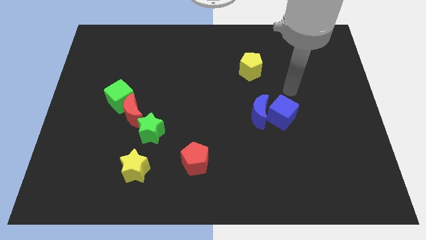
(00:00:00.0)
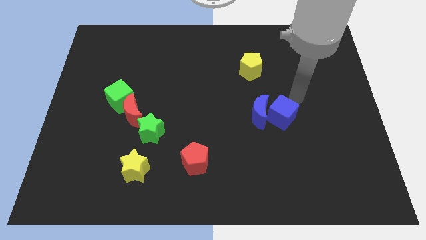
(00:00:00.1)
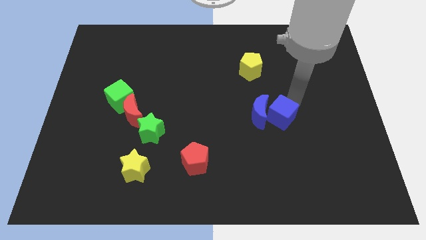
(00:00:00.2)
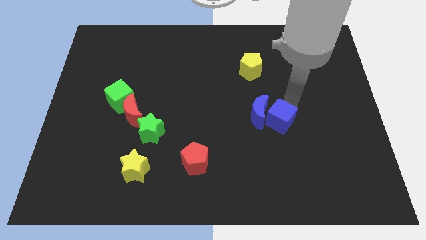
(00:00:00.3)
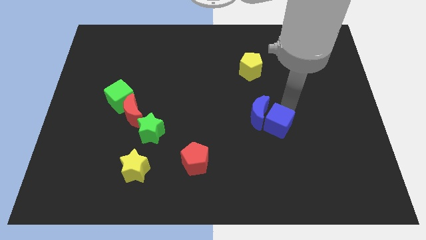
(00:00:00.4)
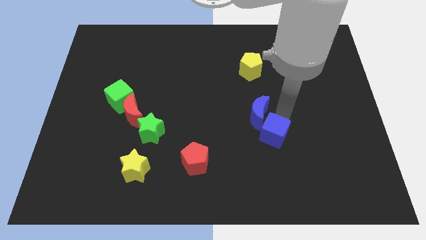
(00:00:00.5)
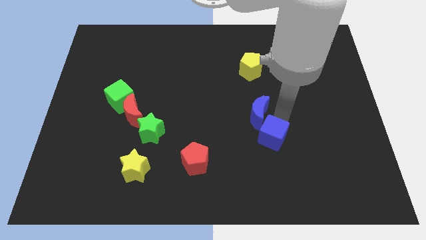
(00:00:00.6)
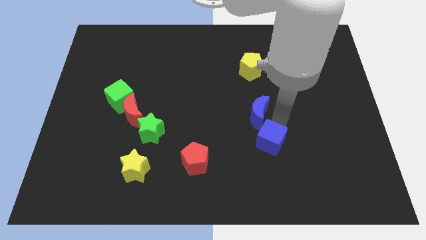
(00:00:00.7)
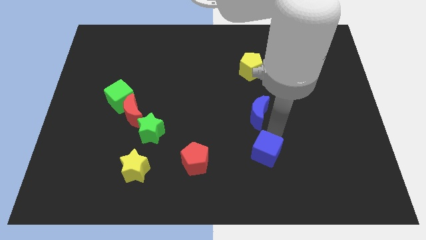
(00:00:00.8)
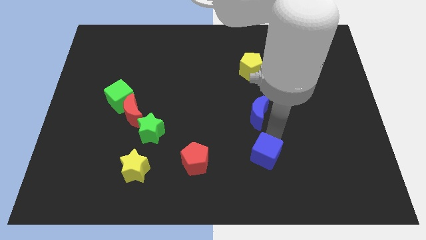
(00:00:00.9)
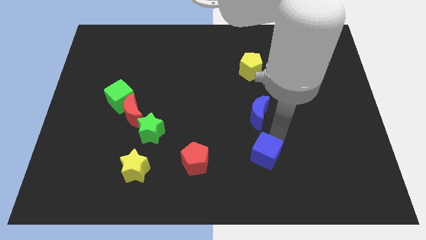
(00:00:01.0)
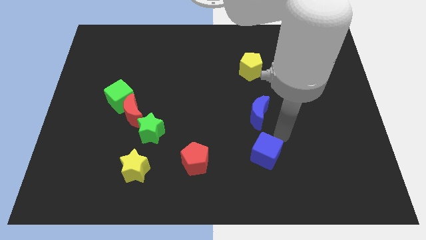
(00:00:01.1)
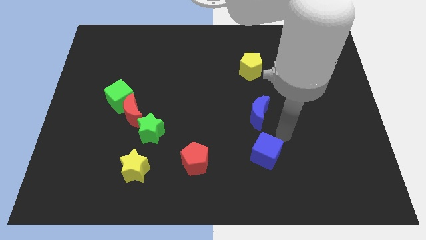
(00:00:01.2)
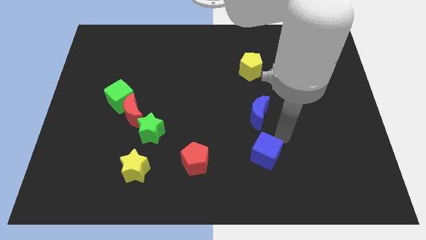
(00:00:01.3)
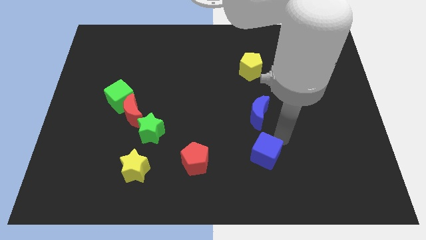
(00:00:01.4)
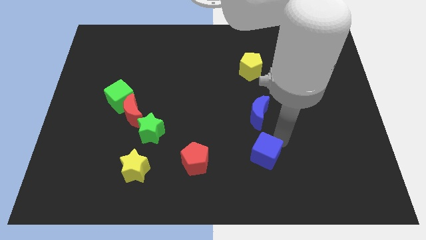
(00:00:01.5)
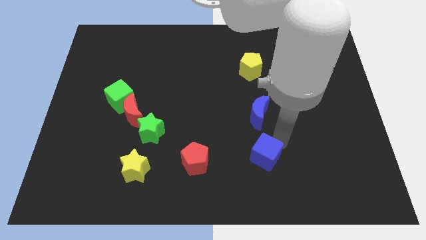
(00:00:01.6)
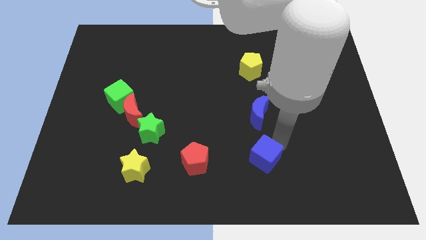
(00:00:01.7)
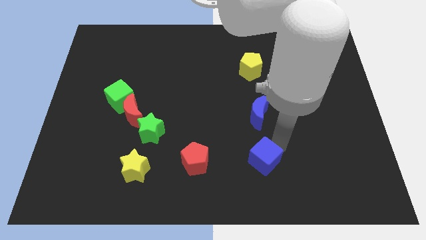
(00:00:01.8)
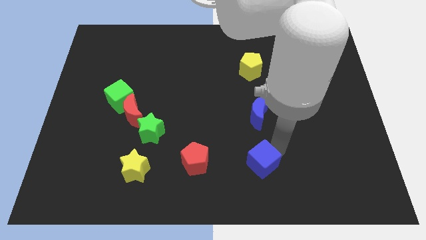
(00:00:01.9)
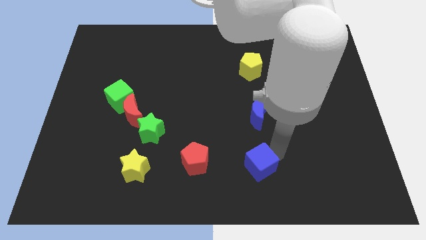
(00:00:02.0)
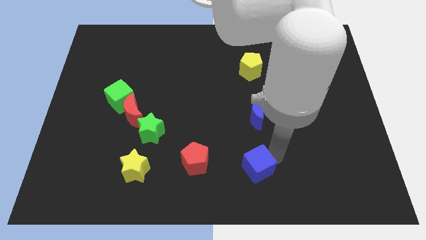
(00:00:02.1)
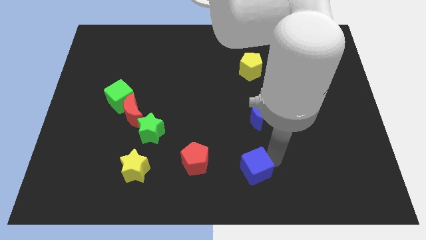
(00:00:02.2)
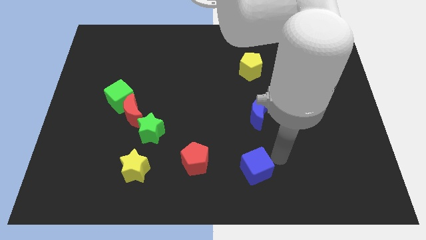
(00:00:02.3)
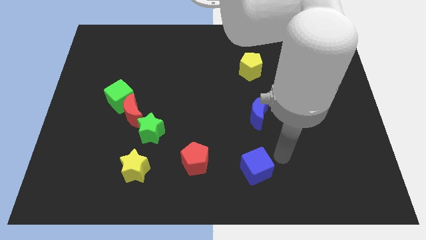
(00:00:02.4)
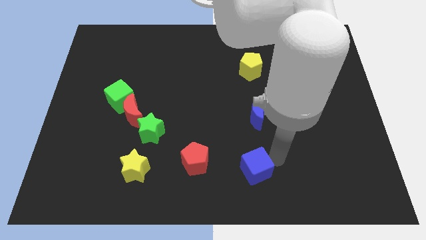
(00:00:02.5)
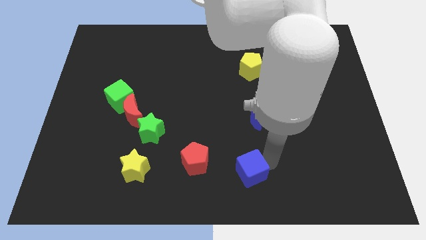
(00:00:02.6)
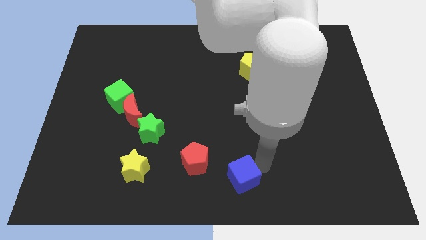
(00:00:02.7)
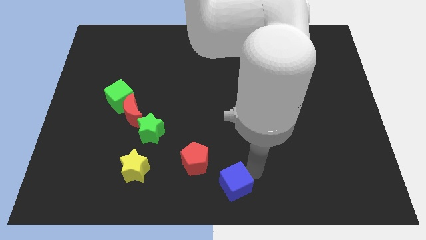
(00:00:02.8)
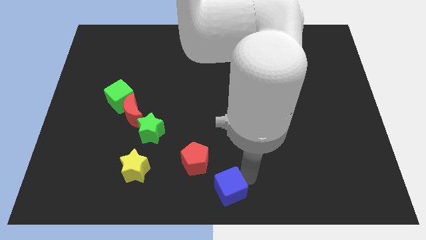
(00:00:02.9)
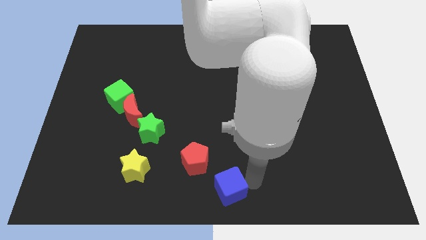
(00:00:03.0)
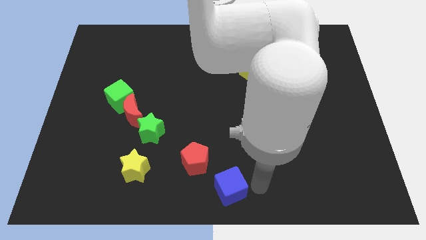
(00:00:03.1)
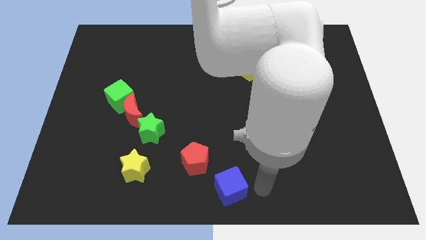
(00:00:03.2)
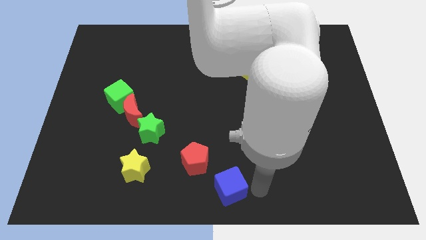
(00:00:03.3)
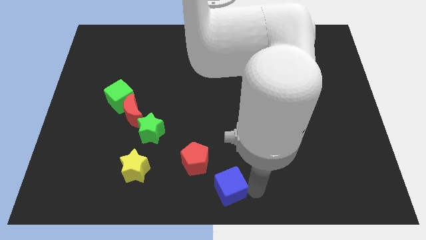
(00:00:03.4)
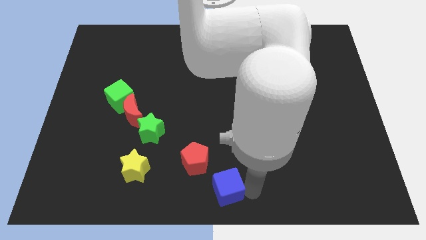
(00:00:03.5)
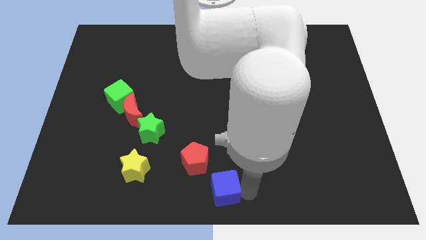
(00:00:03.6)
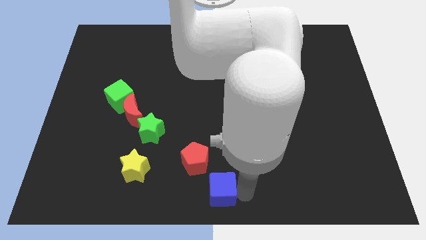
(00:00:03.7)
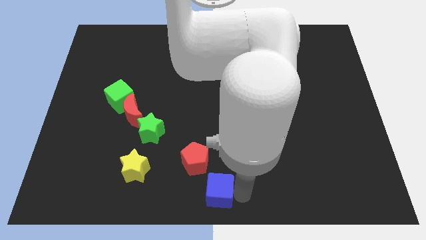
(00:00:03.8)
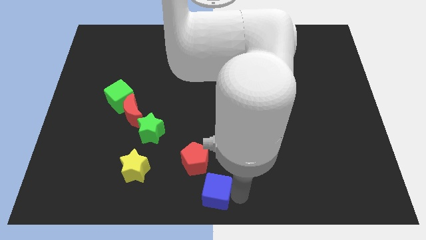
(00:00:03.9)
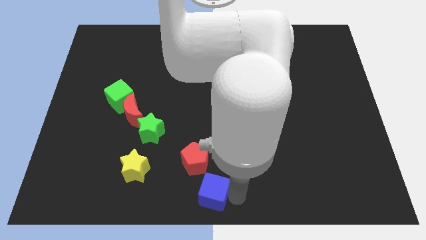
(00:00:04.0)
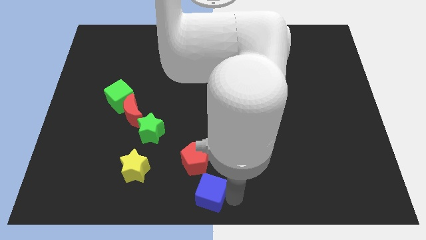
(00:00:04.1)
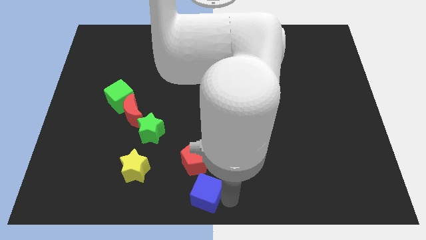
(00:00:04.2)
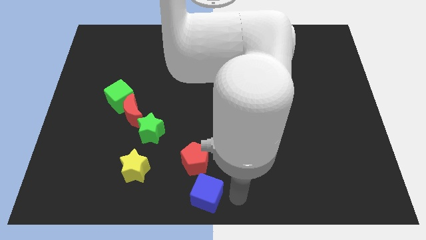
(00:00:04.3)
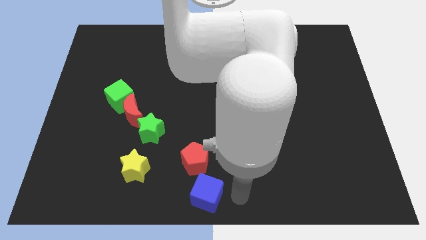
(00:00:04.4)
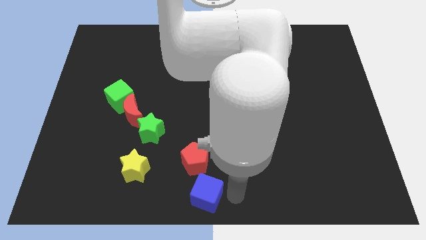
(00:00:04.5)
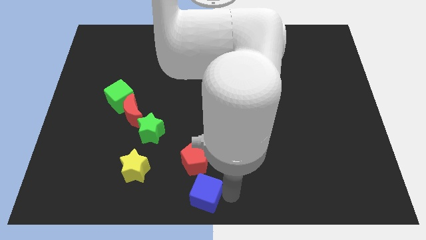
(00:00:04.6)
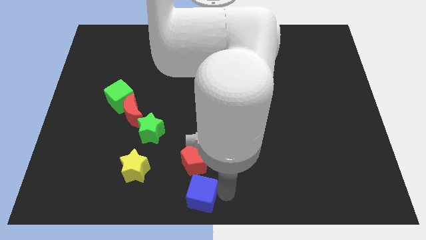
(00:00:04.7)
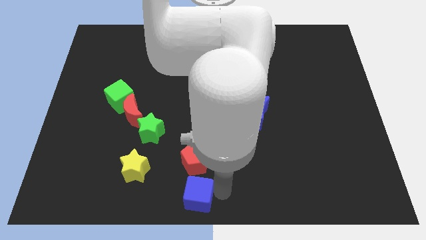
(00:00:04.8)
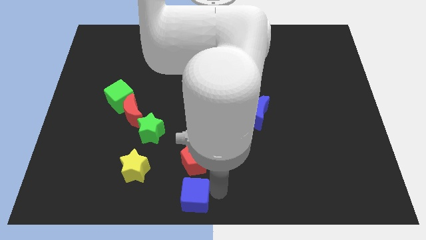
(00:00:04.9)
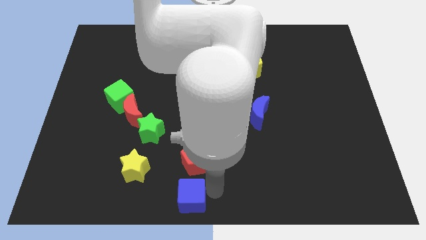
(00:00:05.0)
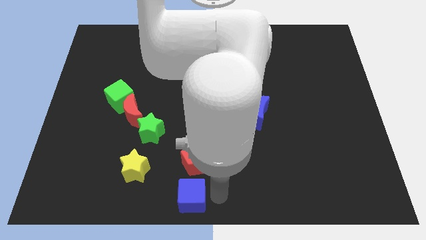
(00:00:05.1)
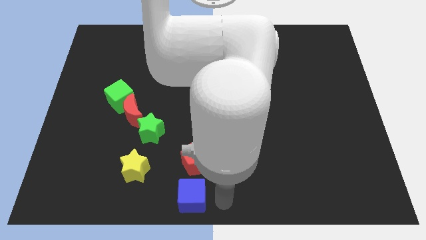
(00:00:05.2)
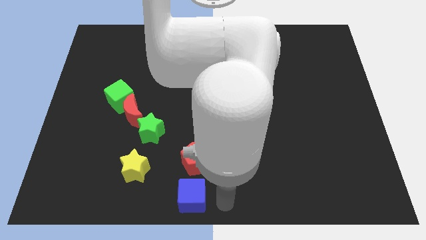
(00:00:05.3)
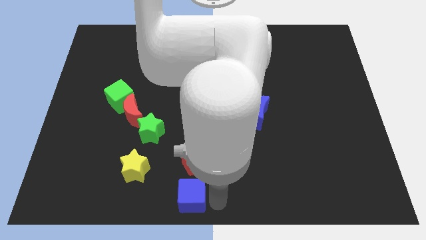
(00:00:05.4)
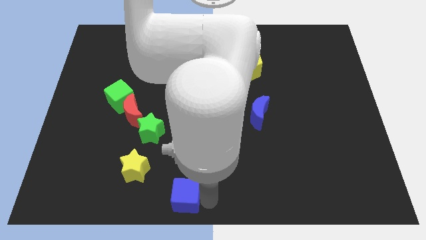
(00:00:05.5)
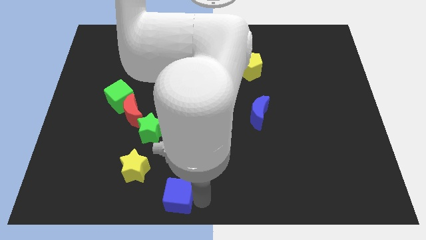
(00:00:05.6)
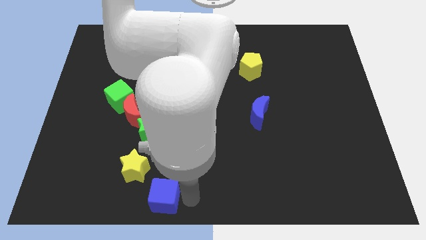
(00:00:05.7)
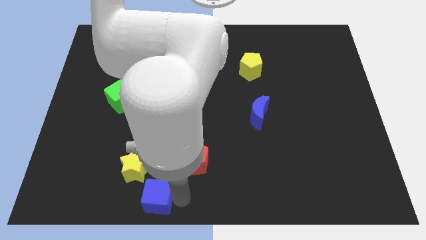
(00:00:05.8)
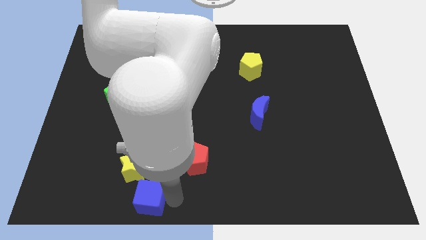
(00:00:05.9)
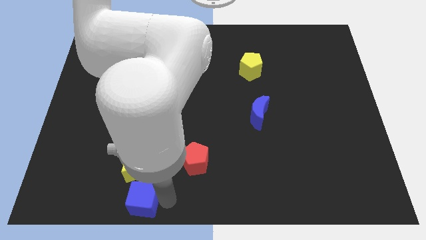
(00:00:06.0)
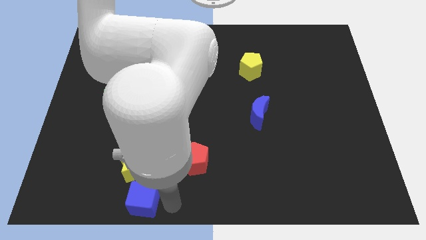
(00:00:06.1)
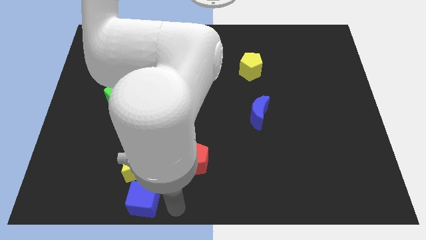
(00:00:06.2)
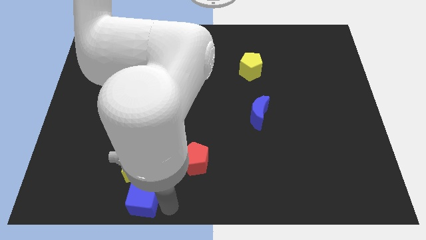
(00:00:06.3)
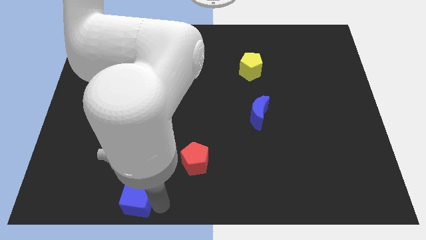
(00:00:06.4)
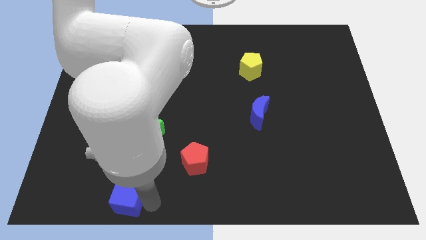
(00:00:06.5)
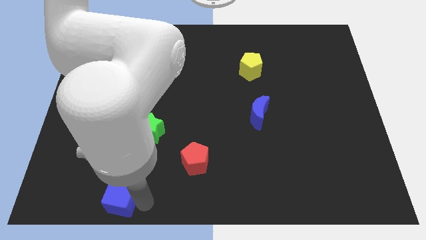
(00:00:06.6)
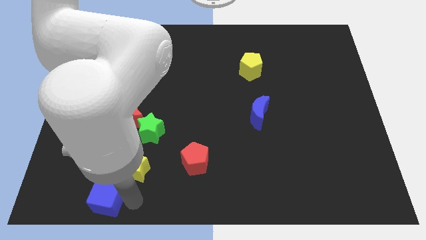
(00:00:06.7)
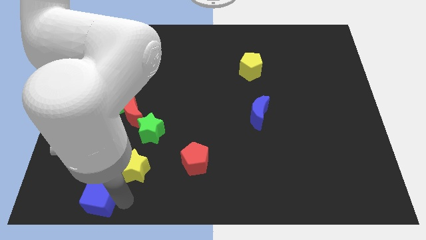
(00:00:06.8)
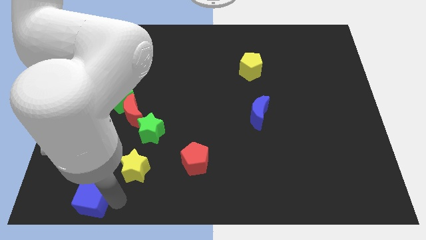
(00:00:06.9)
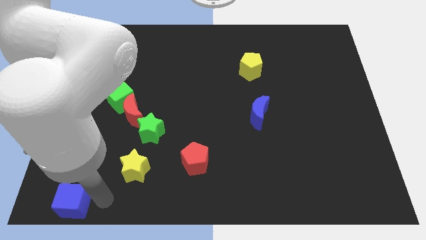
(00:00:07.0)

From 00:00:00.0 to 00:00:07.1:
put the blue cube to the bottom left of the board
